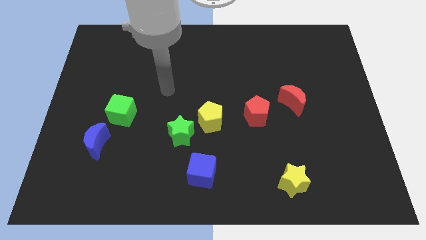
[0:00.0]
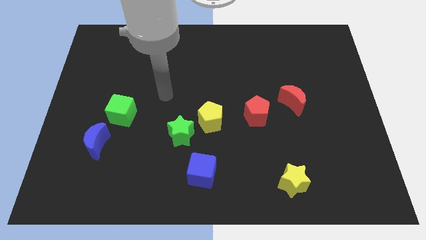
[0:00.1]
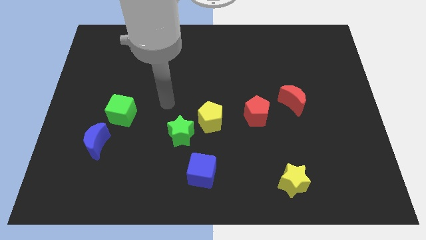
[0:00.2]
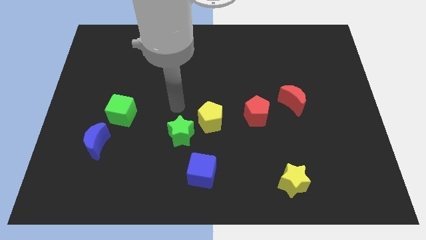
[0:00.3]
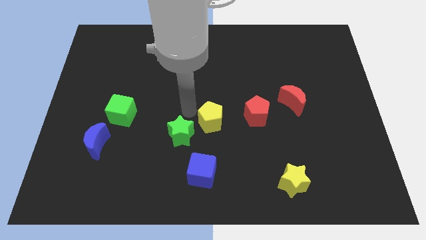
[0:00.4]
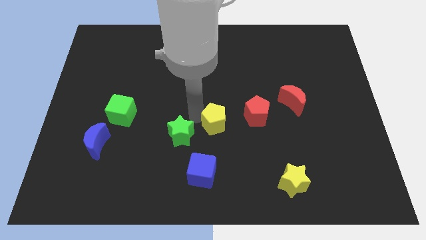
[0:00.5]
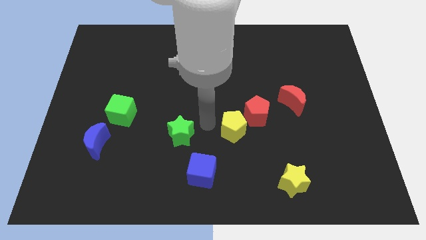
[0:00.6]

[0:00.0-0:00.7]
separate the green star from the yellow pentagon

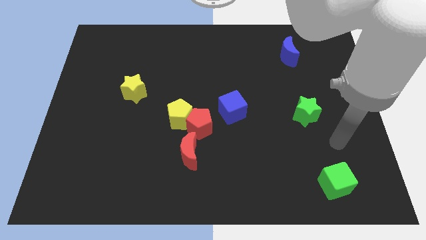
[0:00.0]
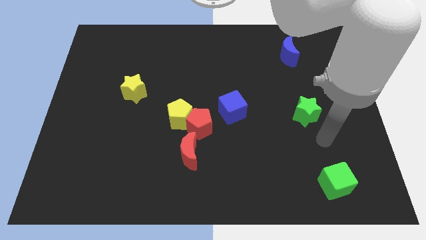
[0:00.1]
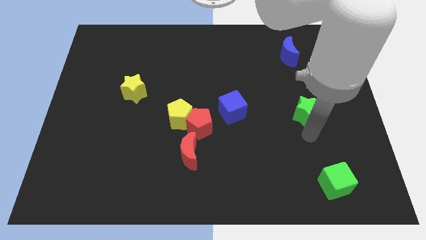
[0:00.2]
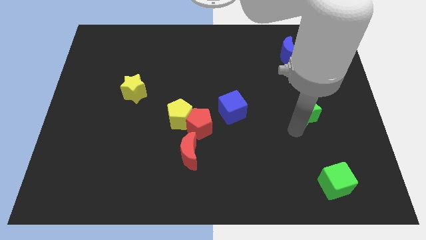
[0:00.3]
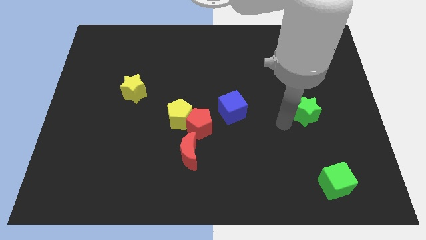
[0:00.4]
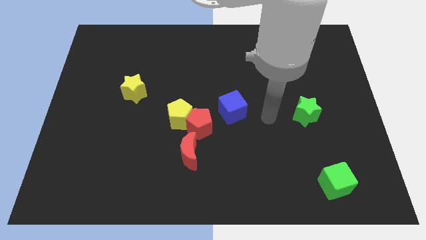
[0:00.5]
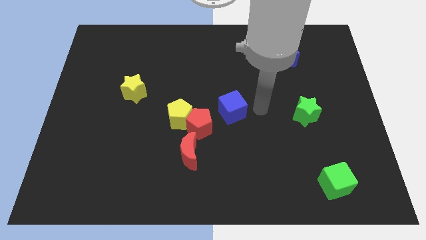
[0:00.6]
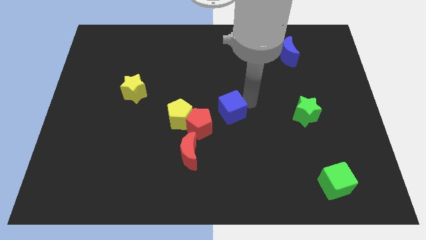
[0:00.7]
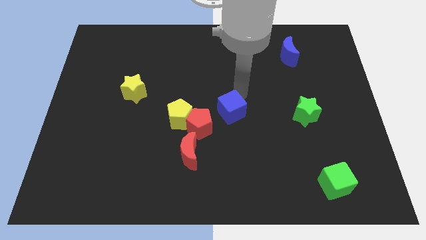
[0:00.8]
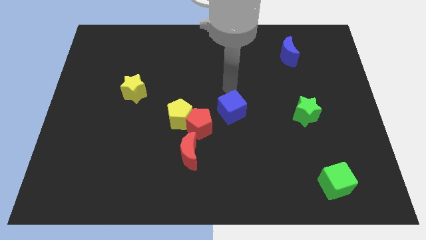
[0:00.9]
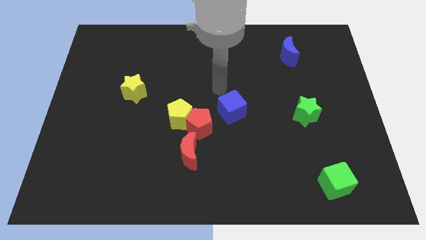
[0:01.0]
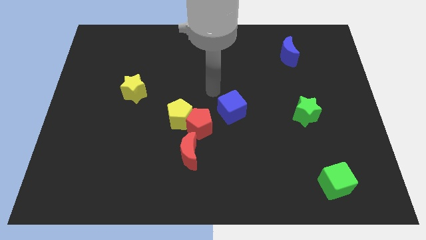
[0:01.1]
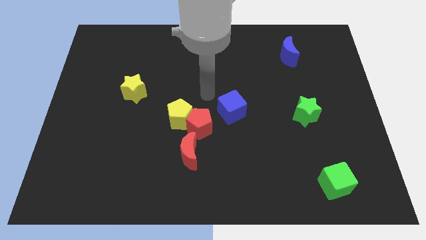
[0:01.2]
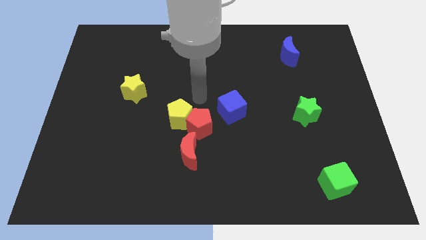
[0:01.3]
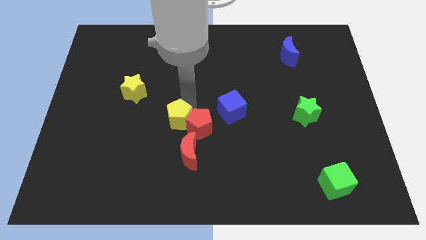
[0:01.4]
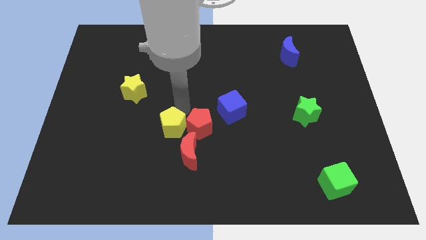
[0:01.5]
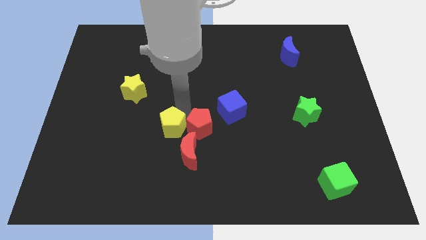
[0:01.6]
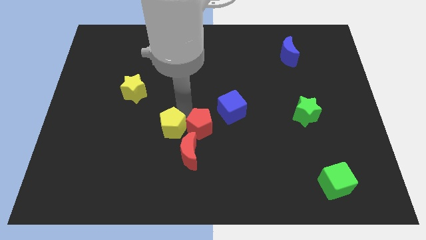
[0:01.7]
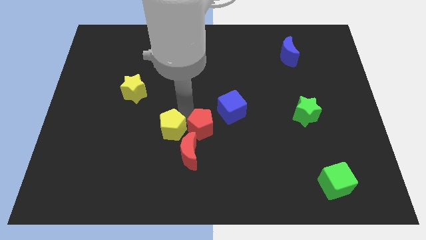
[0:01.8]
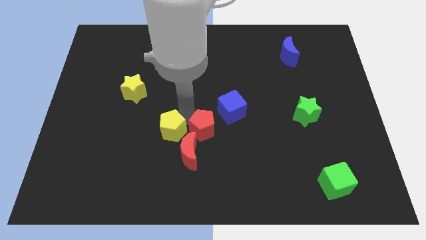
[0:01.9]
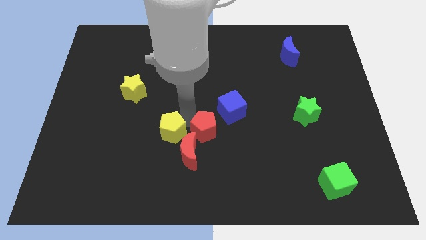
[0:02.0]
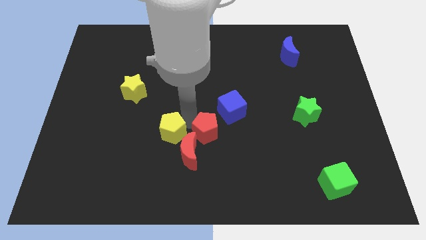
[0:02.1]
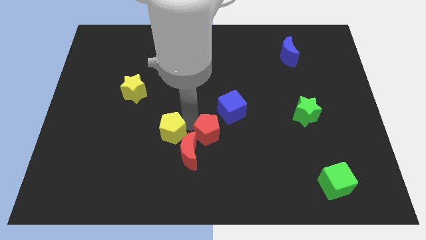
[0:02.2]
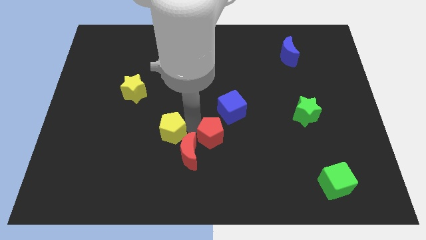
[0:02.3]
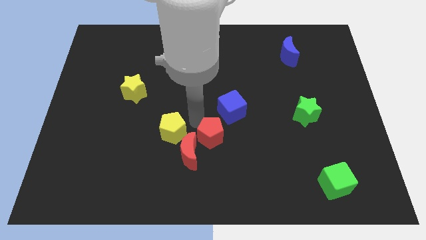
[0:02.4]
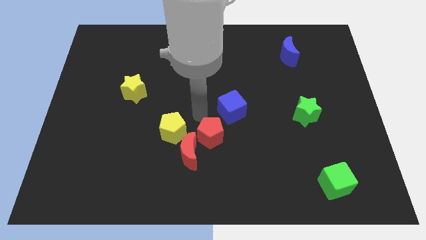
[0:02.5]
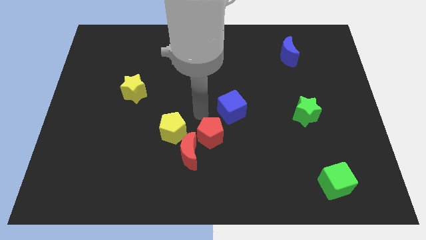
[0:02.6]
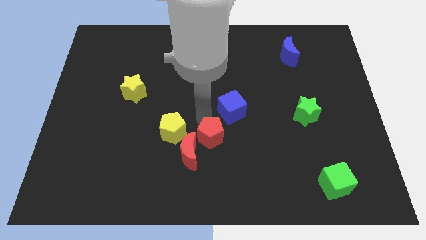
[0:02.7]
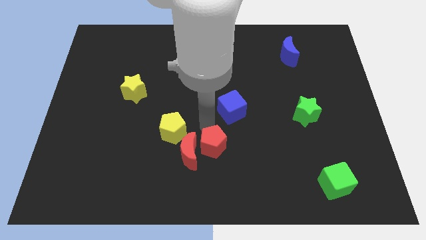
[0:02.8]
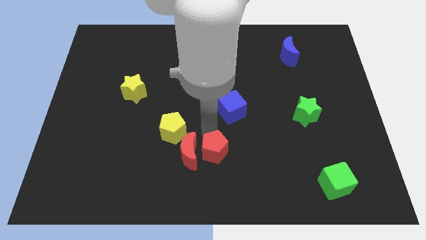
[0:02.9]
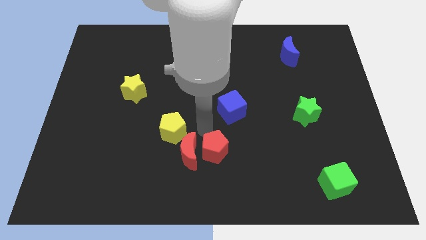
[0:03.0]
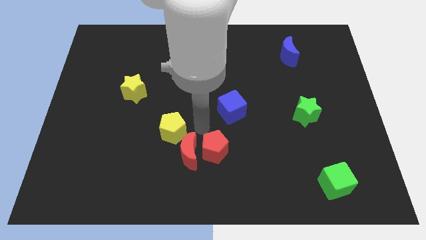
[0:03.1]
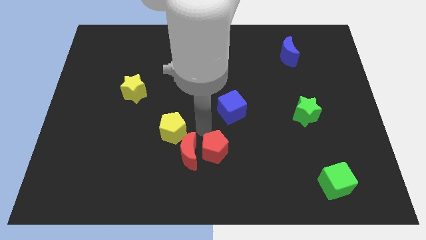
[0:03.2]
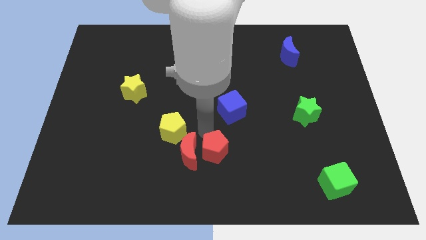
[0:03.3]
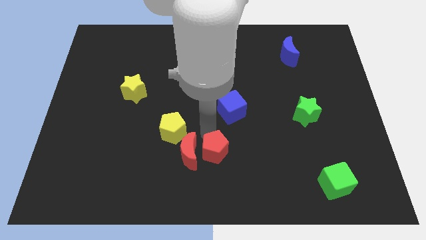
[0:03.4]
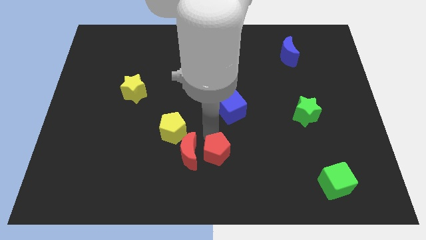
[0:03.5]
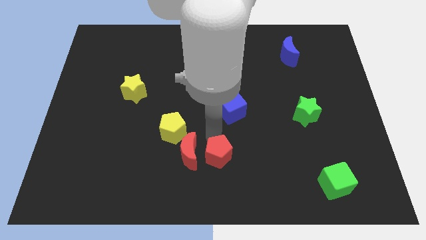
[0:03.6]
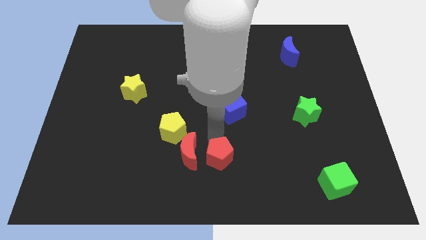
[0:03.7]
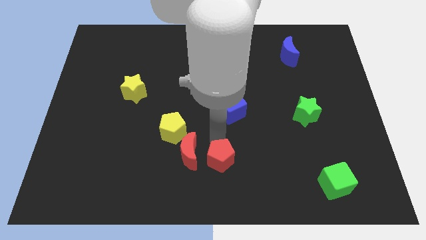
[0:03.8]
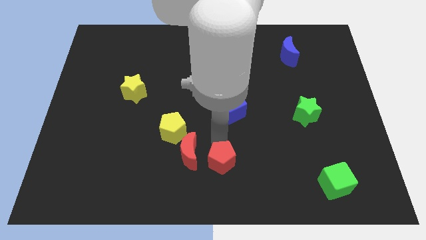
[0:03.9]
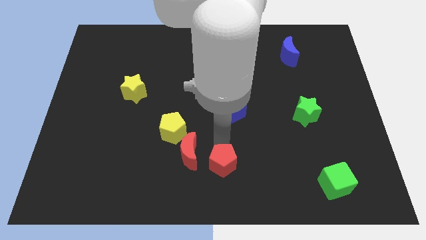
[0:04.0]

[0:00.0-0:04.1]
move the red pentagon away from the yellow pentagon, red moon, and blue cube

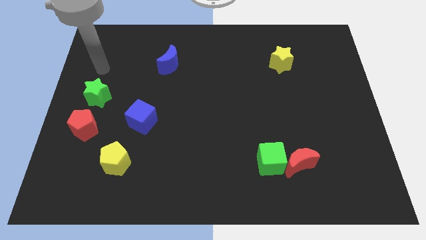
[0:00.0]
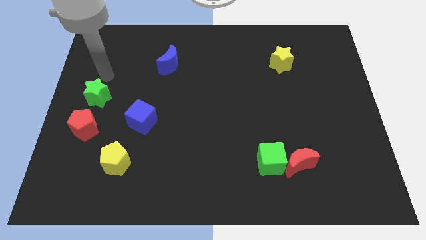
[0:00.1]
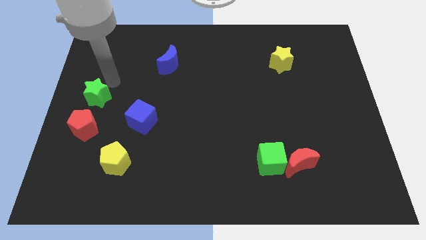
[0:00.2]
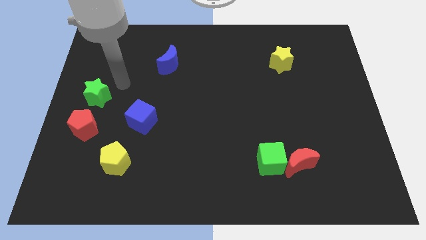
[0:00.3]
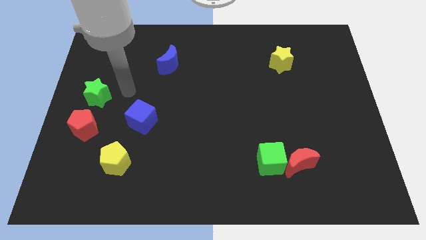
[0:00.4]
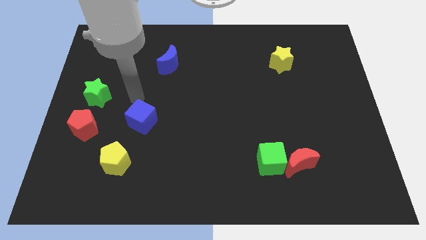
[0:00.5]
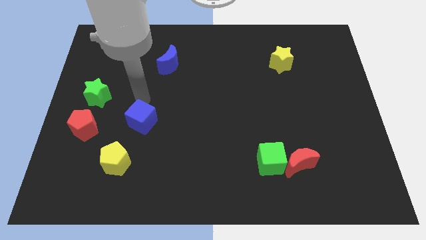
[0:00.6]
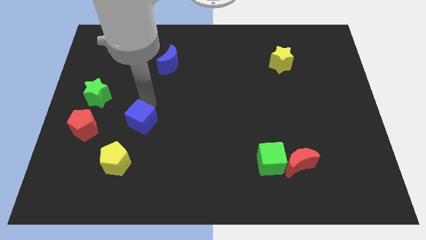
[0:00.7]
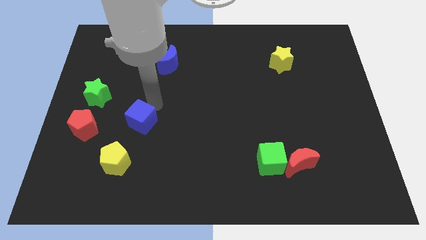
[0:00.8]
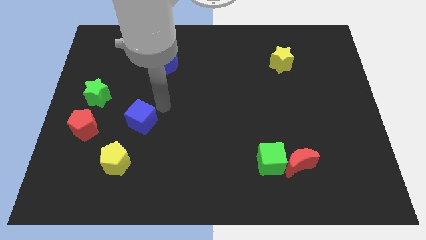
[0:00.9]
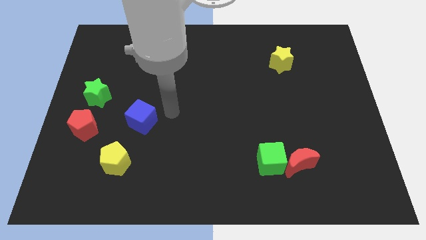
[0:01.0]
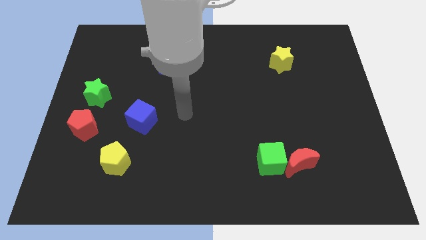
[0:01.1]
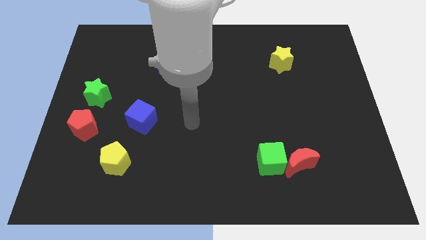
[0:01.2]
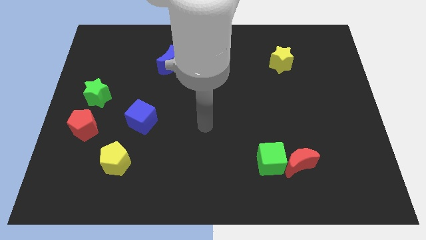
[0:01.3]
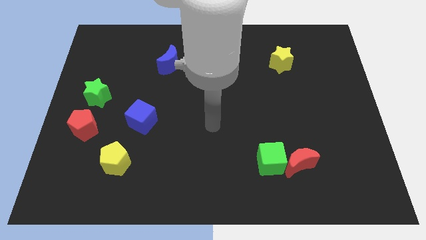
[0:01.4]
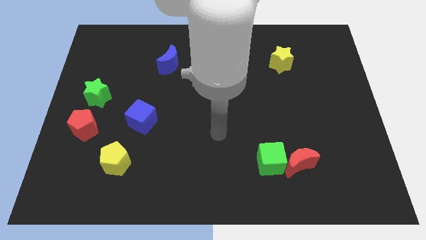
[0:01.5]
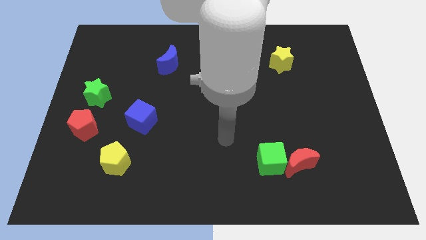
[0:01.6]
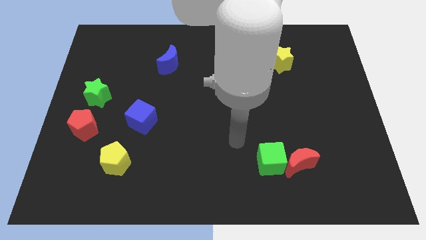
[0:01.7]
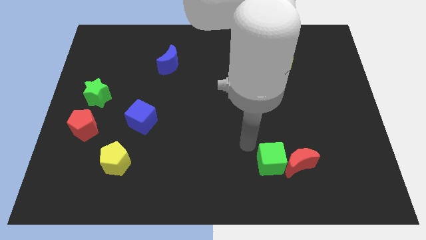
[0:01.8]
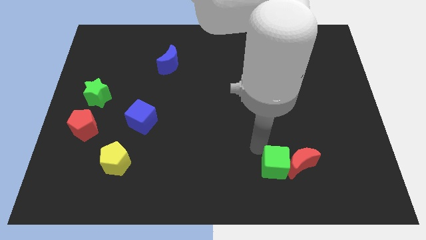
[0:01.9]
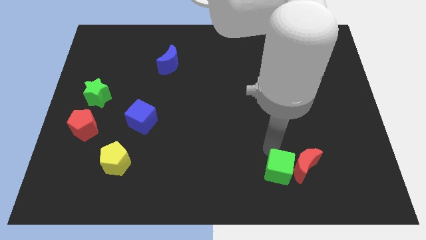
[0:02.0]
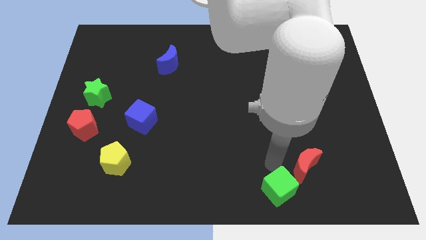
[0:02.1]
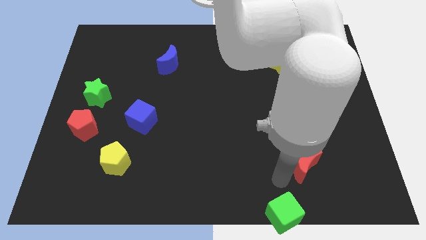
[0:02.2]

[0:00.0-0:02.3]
separate the red moon from the green cube

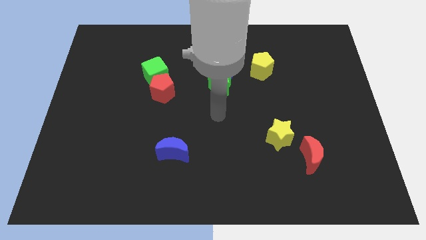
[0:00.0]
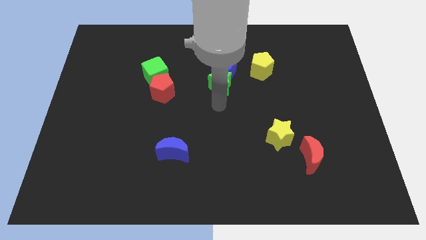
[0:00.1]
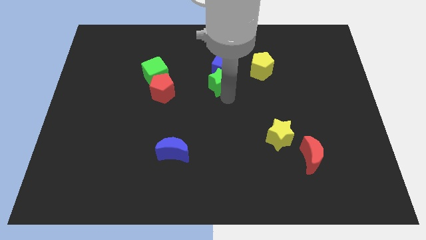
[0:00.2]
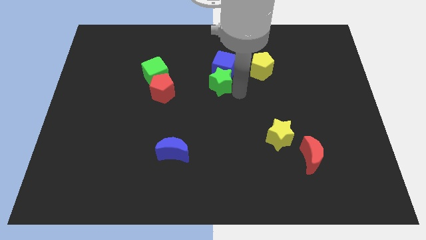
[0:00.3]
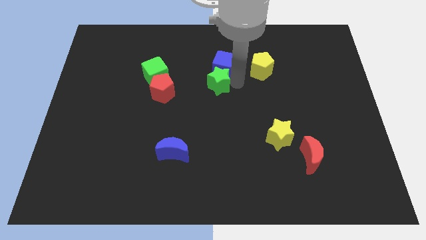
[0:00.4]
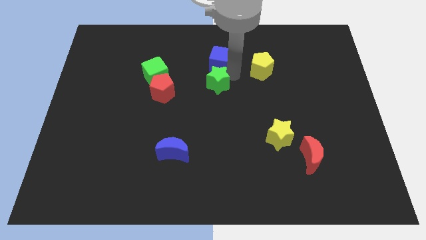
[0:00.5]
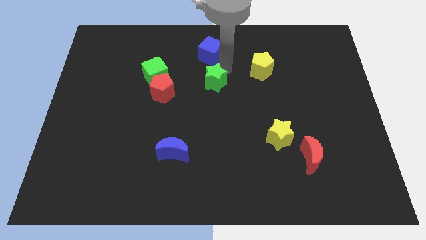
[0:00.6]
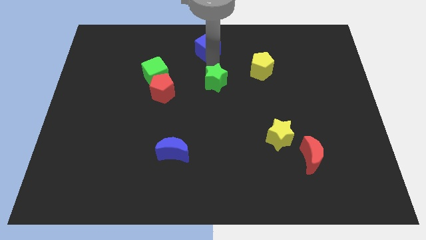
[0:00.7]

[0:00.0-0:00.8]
pull the green star apart from the blue cube

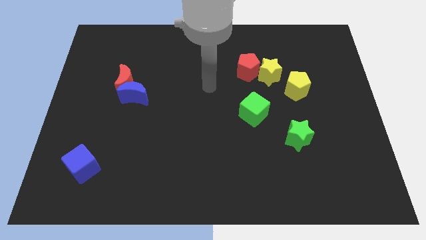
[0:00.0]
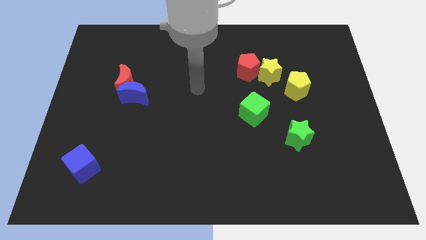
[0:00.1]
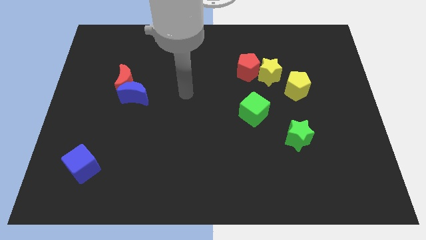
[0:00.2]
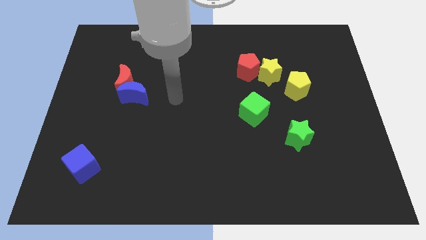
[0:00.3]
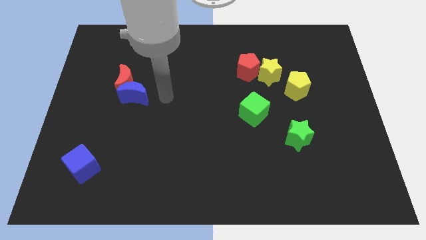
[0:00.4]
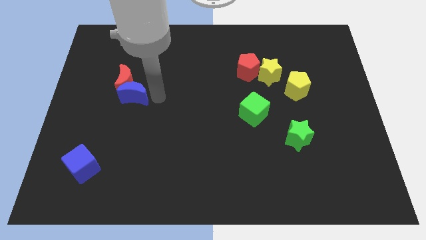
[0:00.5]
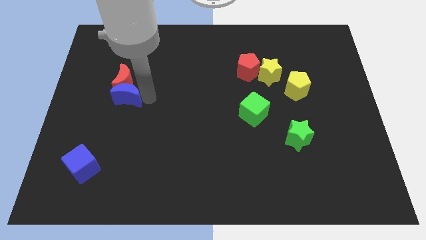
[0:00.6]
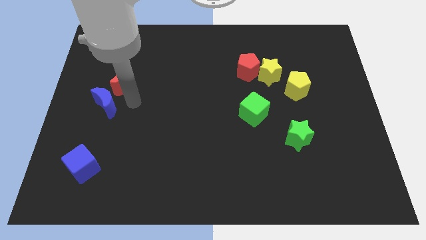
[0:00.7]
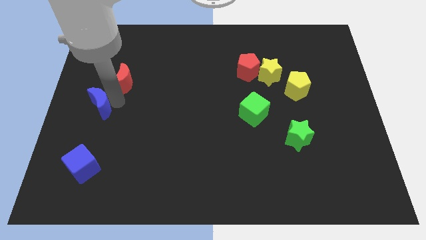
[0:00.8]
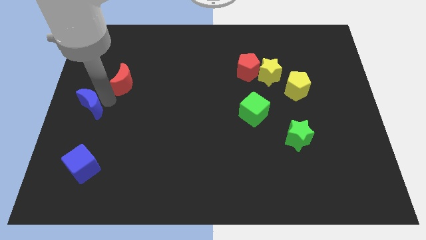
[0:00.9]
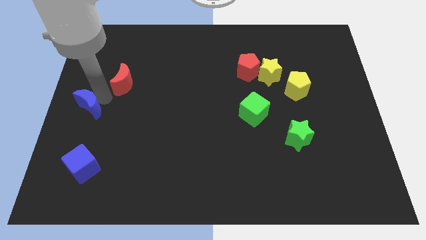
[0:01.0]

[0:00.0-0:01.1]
move the red moon away from the blue moon

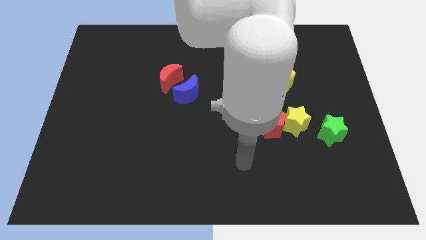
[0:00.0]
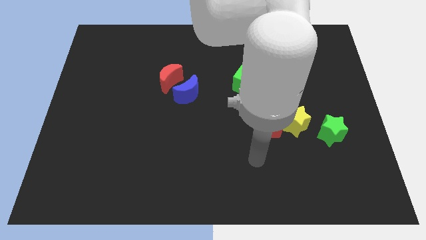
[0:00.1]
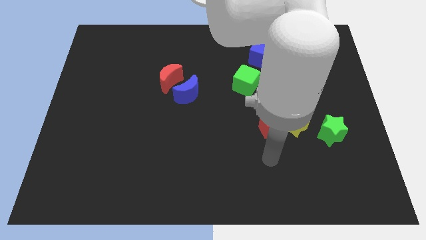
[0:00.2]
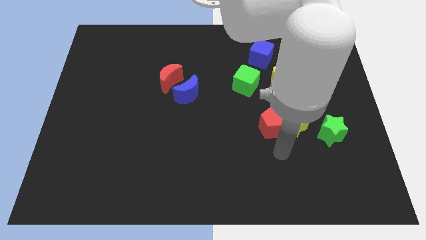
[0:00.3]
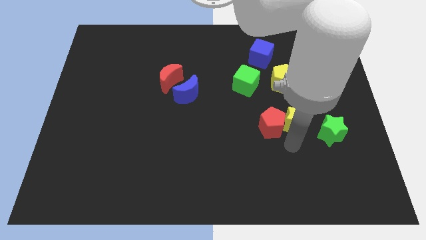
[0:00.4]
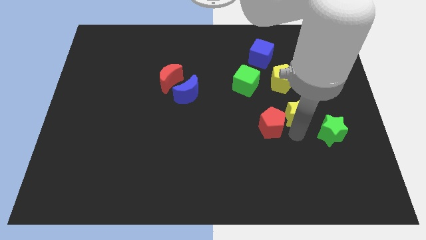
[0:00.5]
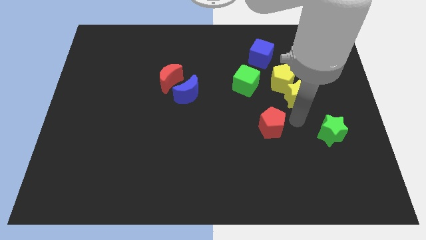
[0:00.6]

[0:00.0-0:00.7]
separate the red pentagon from the yellow star
